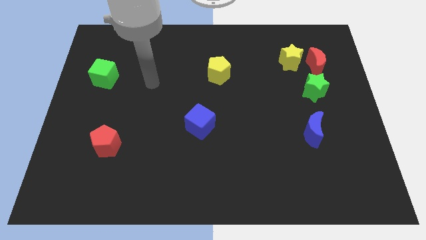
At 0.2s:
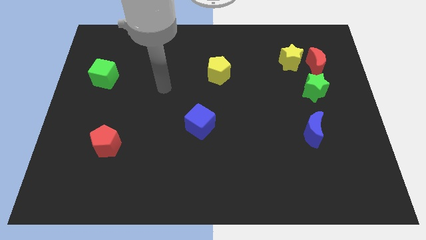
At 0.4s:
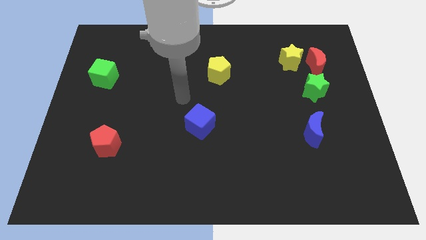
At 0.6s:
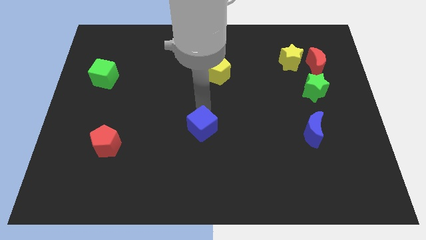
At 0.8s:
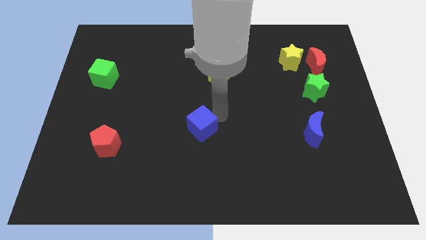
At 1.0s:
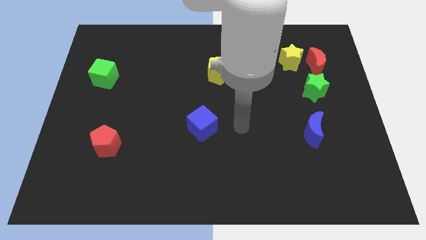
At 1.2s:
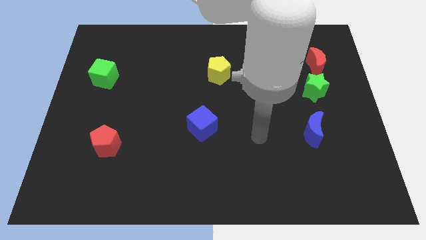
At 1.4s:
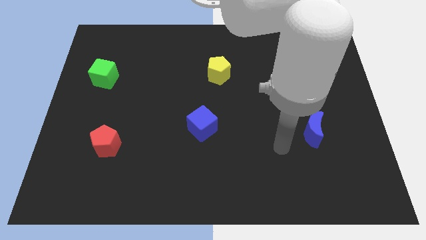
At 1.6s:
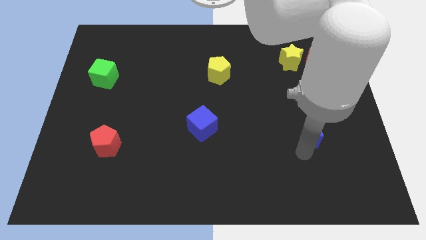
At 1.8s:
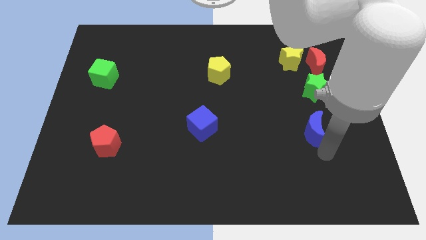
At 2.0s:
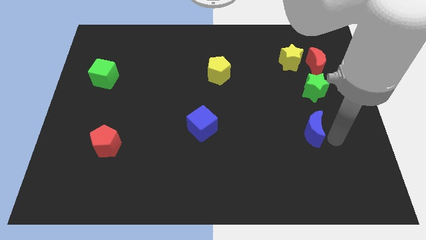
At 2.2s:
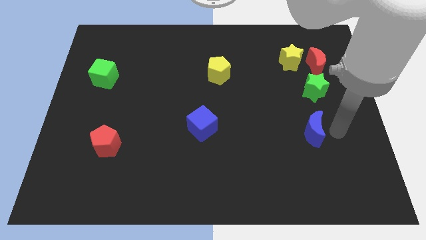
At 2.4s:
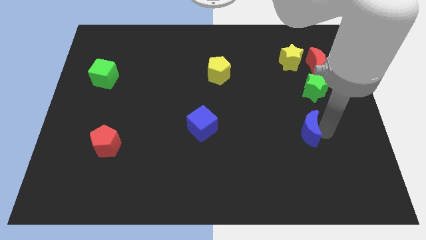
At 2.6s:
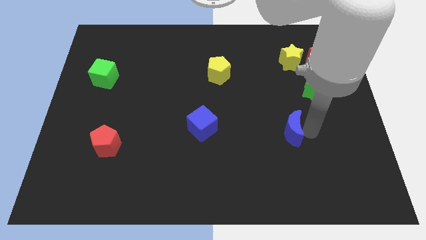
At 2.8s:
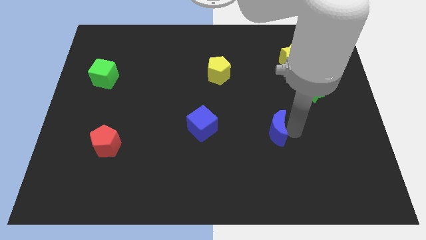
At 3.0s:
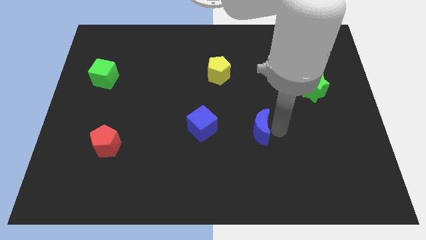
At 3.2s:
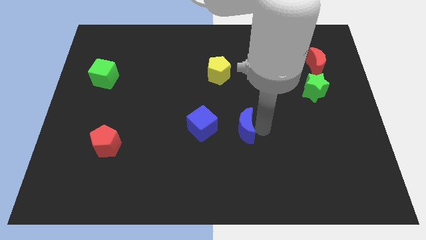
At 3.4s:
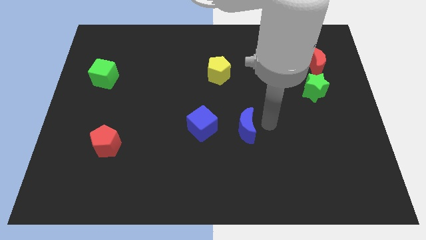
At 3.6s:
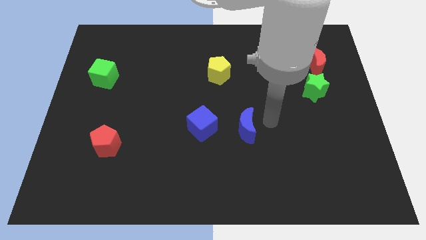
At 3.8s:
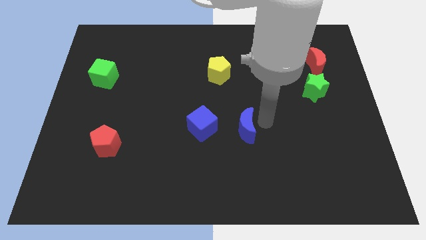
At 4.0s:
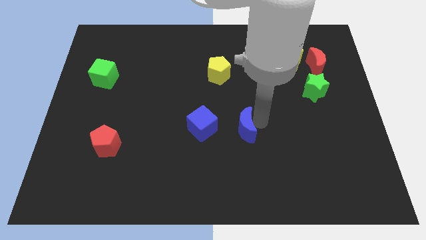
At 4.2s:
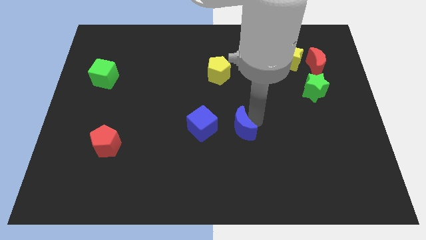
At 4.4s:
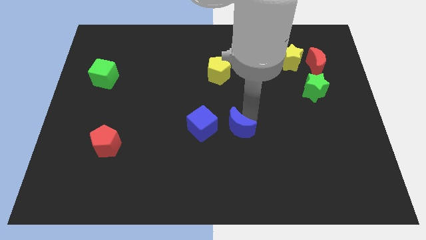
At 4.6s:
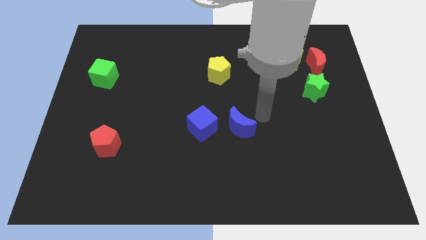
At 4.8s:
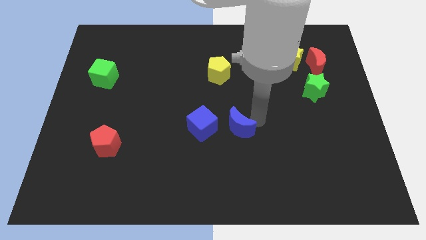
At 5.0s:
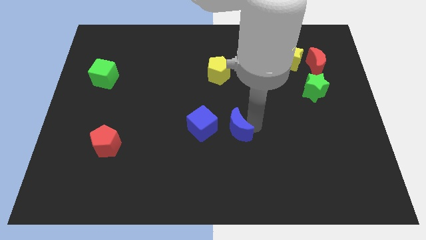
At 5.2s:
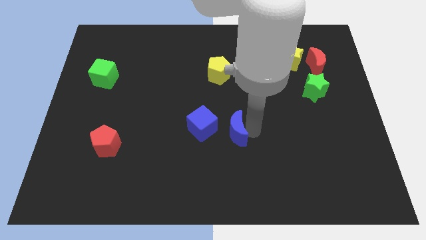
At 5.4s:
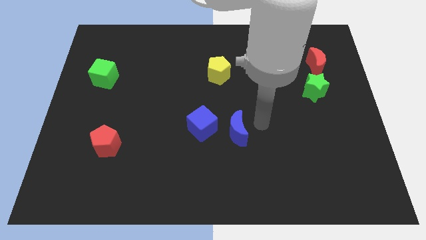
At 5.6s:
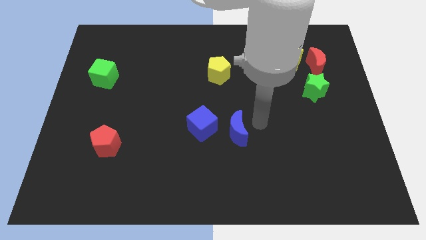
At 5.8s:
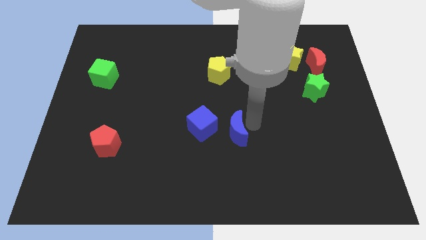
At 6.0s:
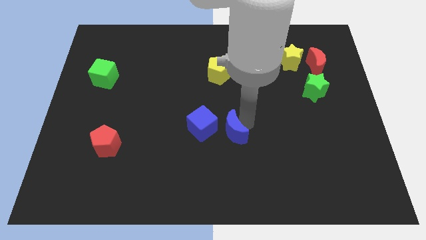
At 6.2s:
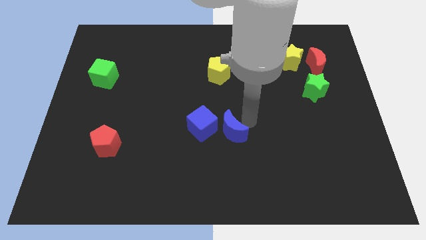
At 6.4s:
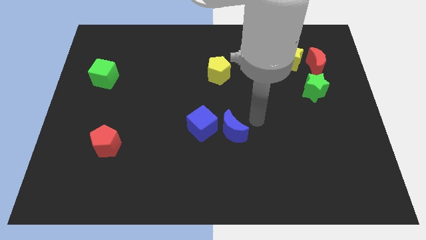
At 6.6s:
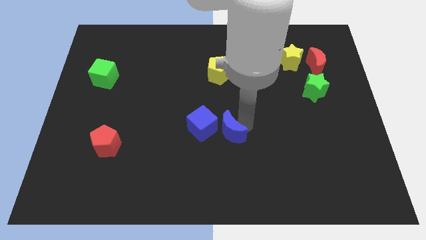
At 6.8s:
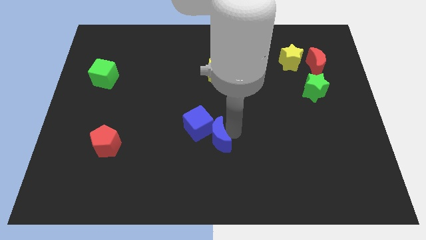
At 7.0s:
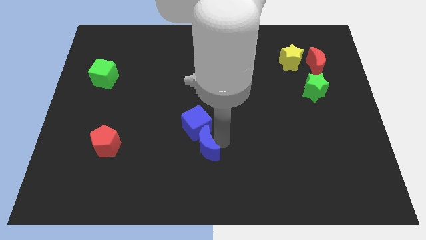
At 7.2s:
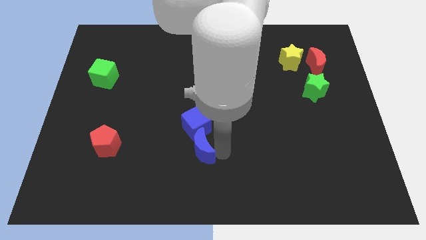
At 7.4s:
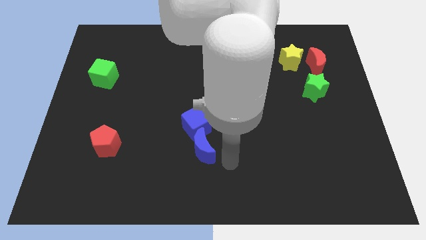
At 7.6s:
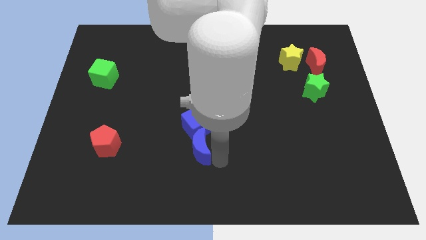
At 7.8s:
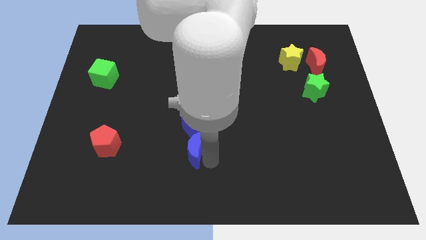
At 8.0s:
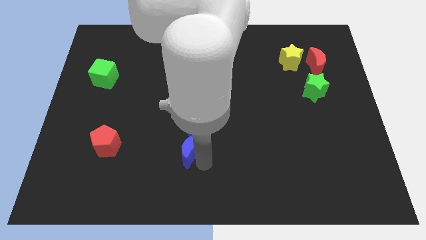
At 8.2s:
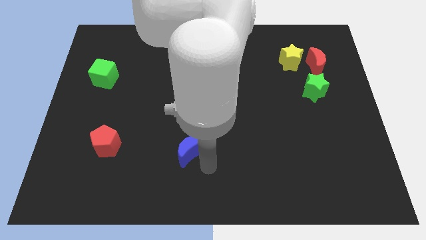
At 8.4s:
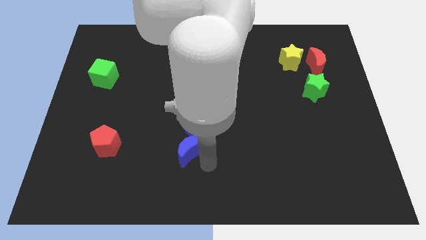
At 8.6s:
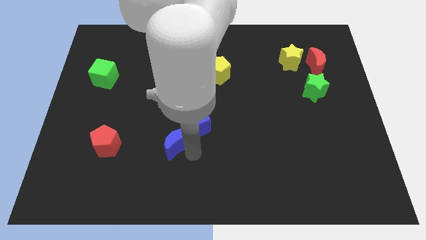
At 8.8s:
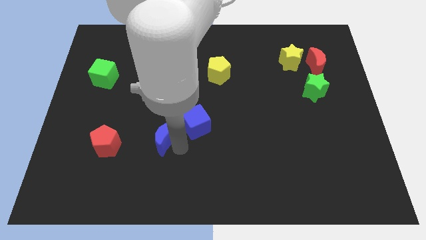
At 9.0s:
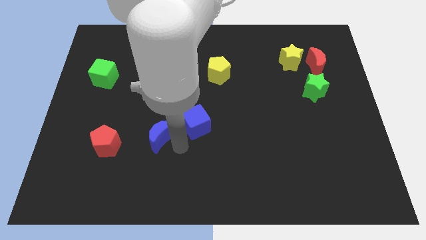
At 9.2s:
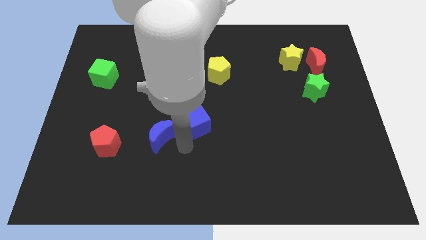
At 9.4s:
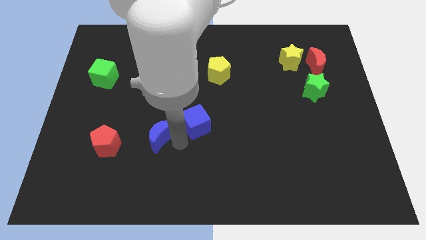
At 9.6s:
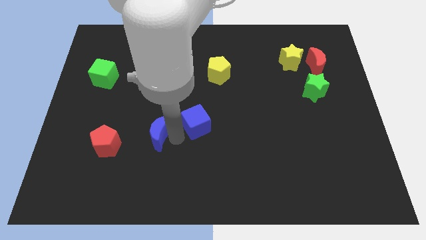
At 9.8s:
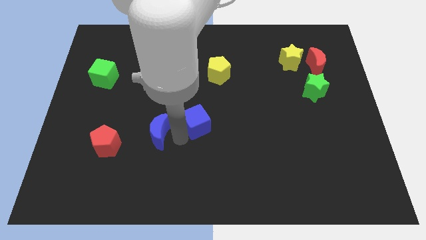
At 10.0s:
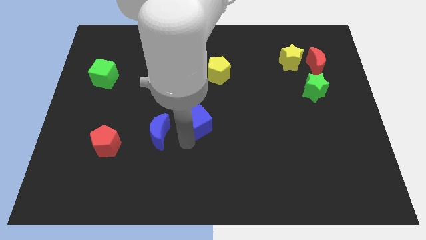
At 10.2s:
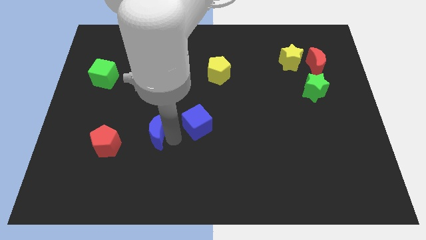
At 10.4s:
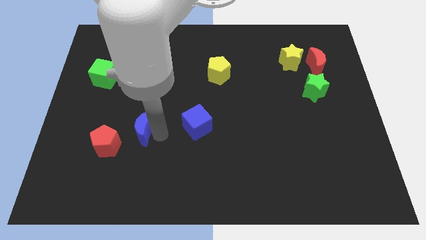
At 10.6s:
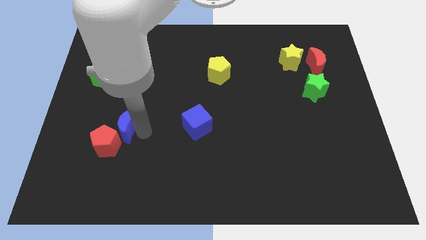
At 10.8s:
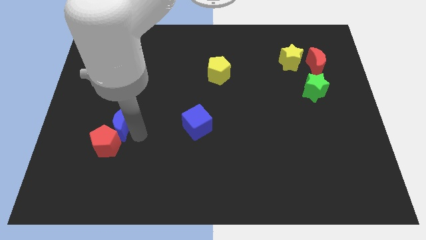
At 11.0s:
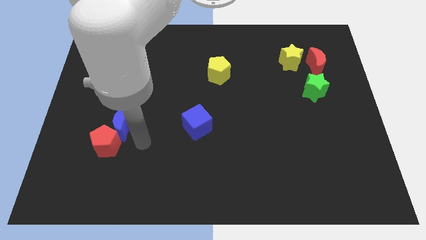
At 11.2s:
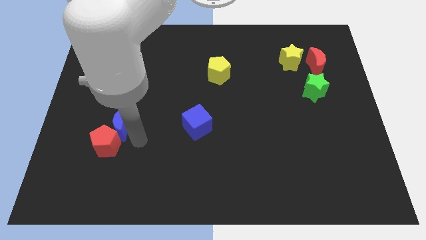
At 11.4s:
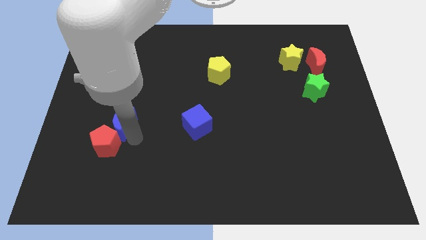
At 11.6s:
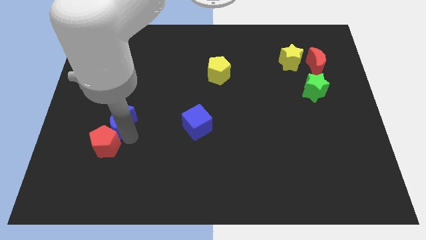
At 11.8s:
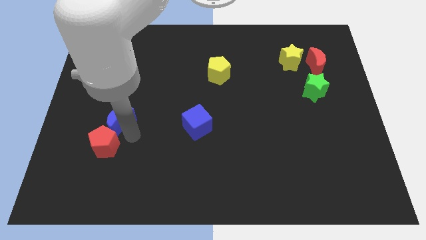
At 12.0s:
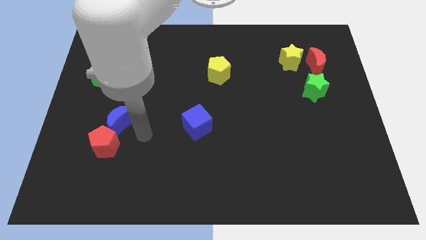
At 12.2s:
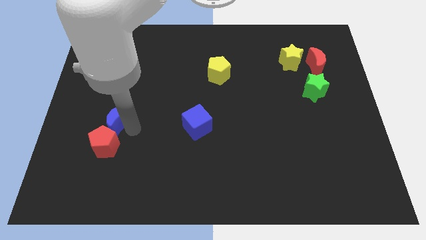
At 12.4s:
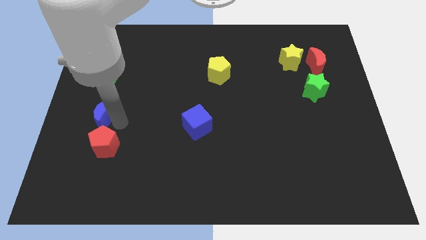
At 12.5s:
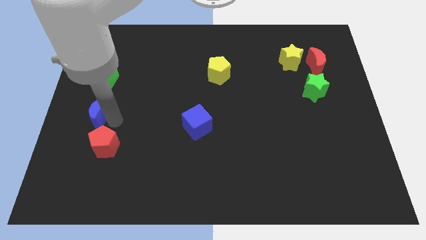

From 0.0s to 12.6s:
slide the blue moon to the left side

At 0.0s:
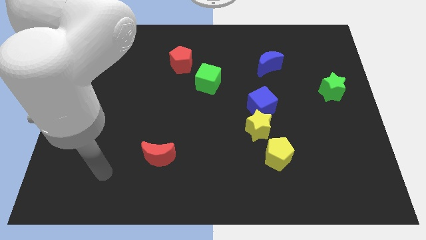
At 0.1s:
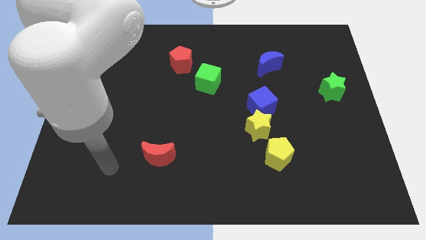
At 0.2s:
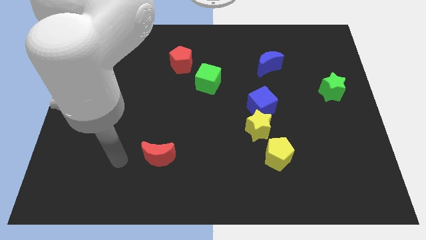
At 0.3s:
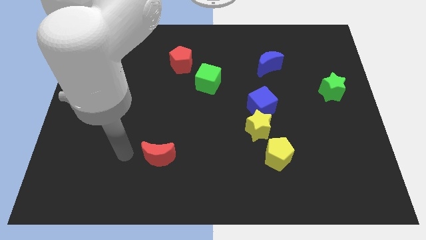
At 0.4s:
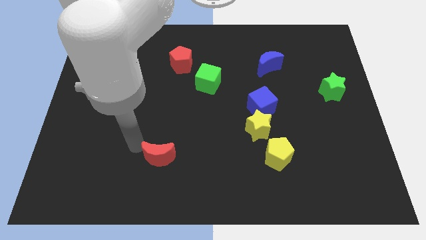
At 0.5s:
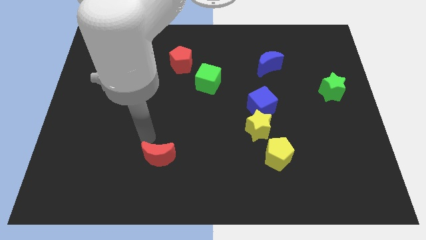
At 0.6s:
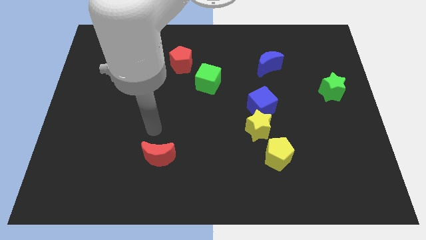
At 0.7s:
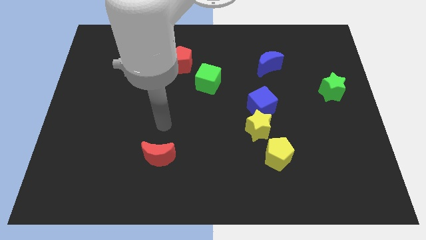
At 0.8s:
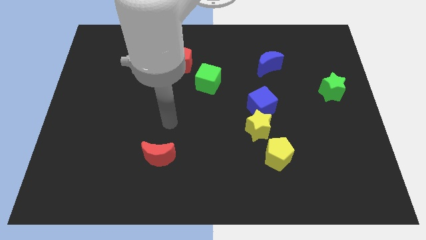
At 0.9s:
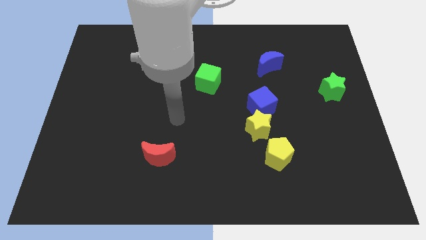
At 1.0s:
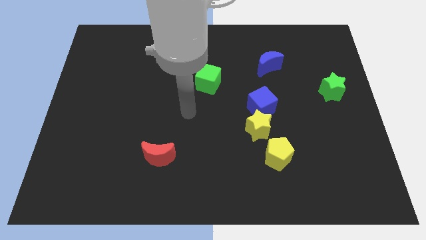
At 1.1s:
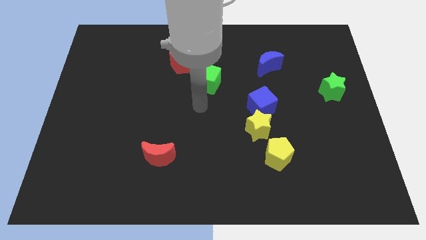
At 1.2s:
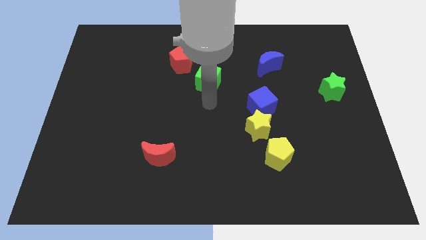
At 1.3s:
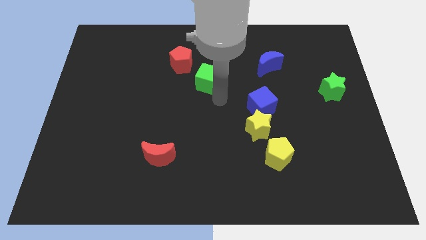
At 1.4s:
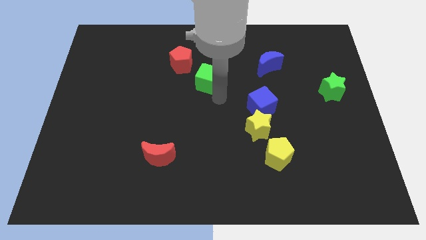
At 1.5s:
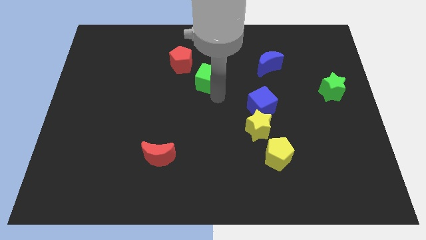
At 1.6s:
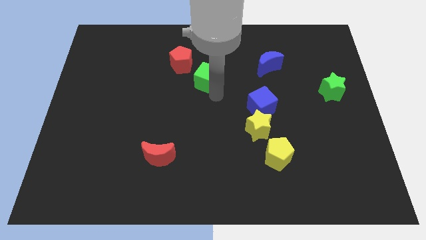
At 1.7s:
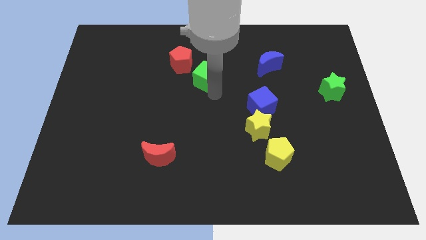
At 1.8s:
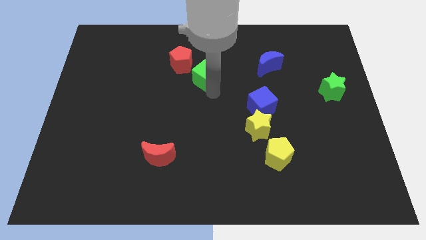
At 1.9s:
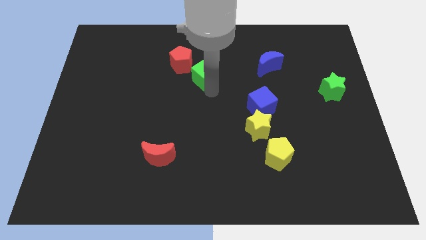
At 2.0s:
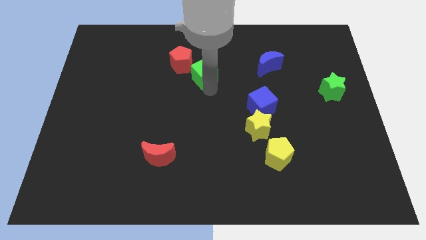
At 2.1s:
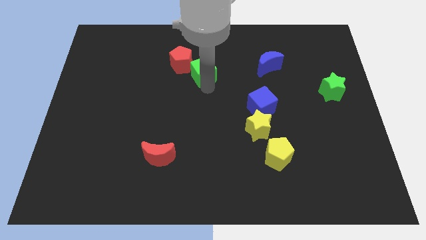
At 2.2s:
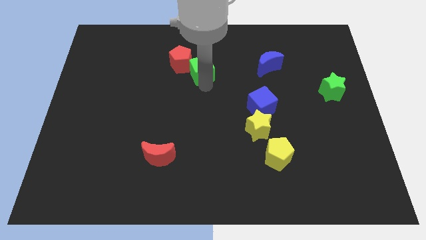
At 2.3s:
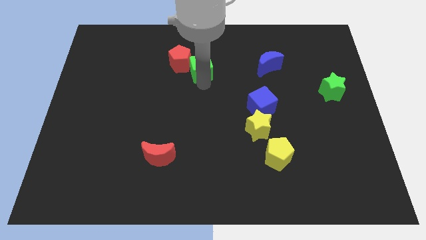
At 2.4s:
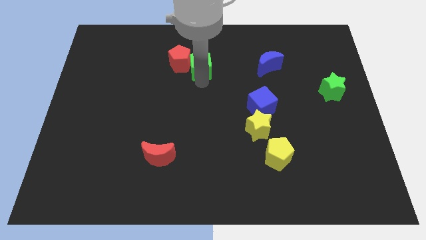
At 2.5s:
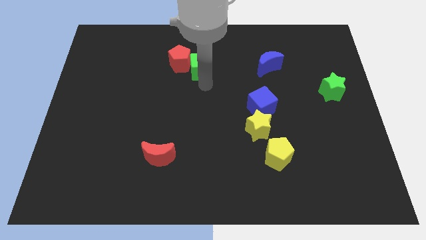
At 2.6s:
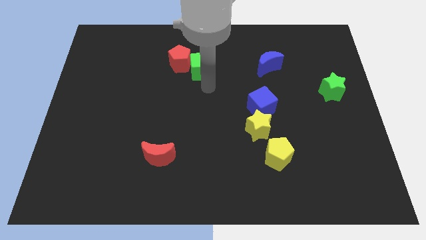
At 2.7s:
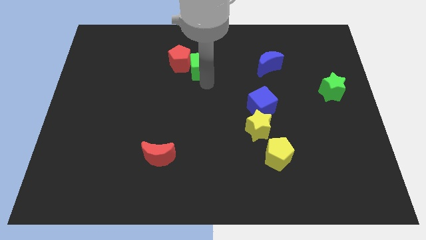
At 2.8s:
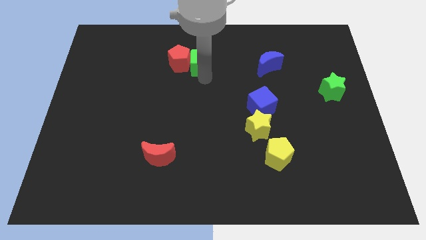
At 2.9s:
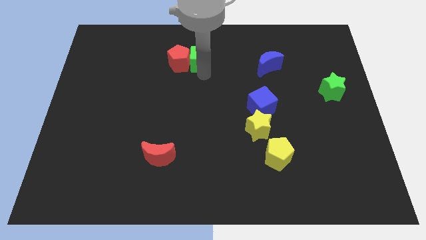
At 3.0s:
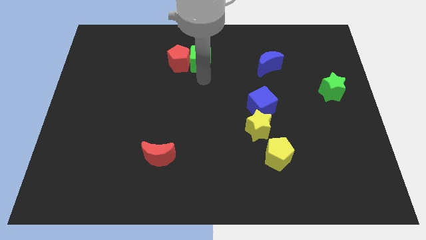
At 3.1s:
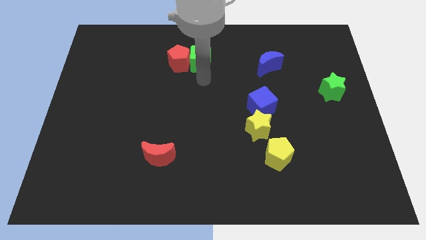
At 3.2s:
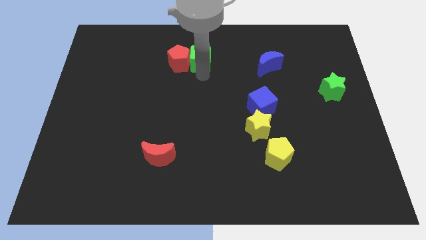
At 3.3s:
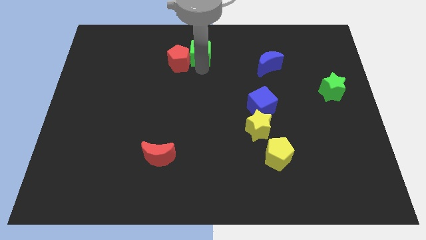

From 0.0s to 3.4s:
move the green cube to the top
